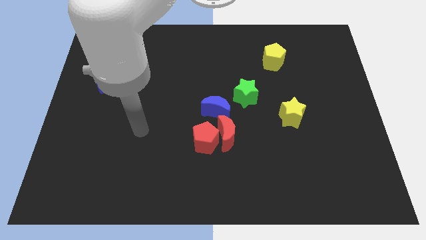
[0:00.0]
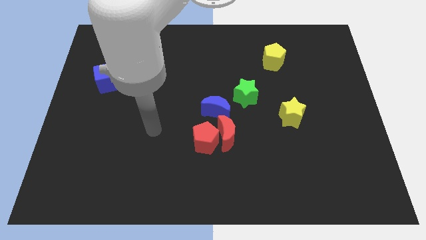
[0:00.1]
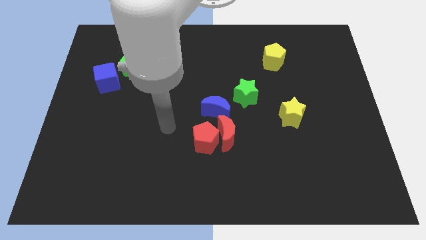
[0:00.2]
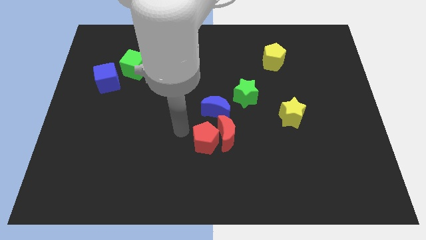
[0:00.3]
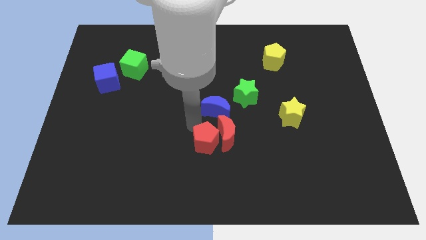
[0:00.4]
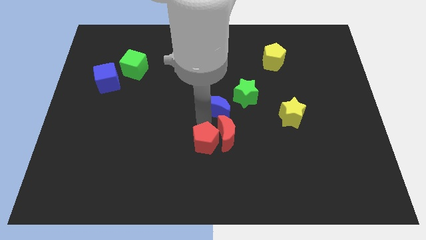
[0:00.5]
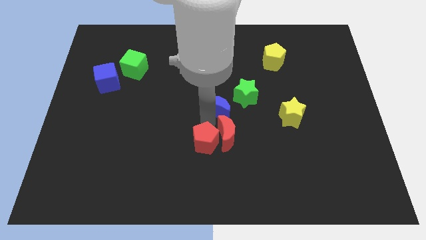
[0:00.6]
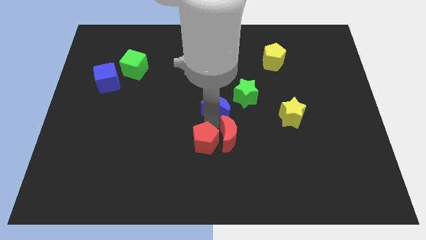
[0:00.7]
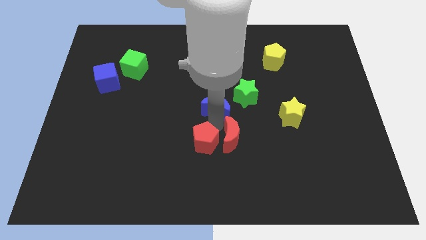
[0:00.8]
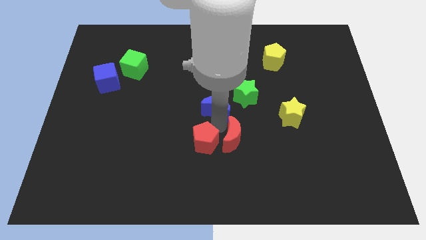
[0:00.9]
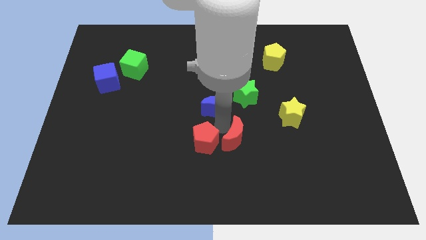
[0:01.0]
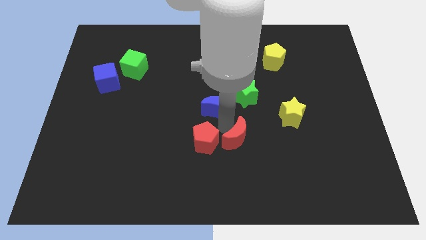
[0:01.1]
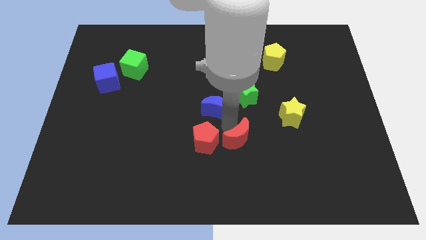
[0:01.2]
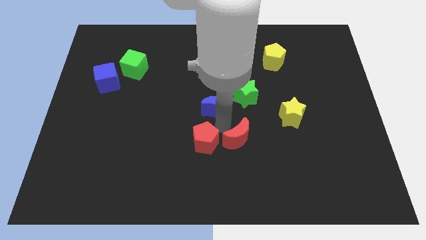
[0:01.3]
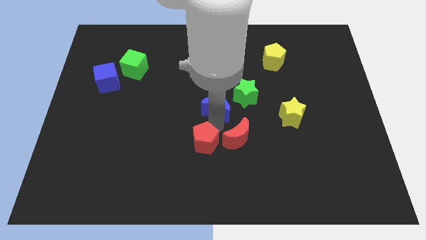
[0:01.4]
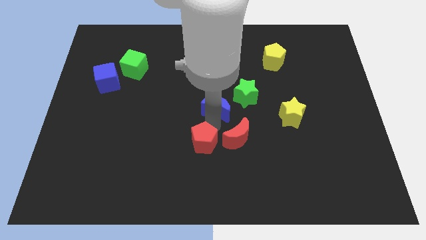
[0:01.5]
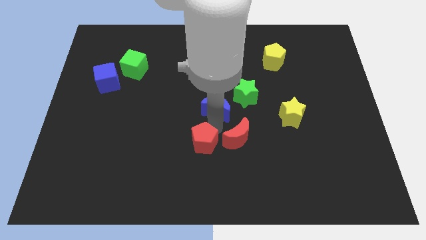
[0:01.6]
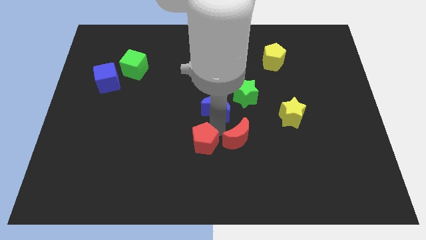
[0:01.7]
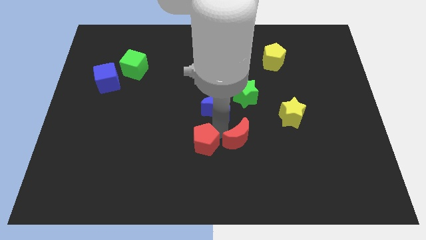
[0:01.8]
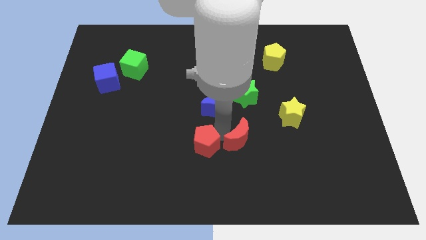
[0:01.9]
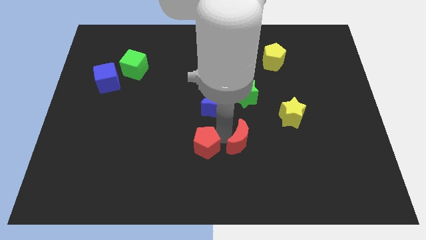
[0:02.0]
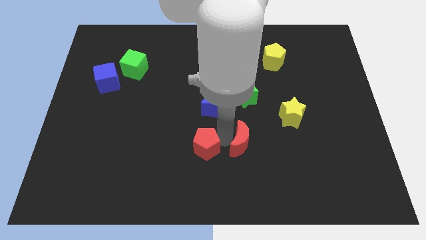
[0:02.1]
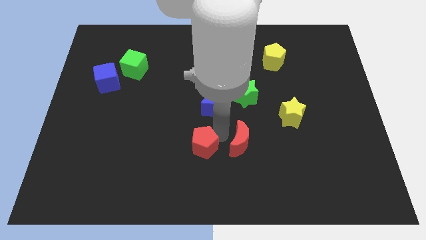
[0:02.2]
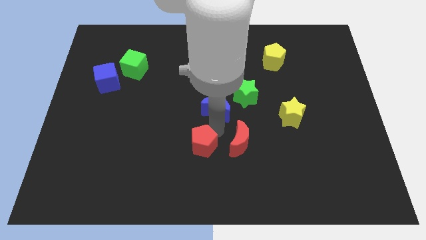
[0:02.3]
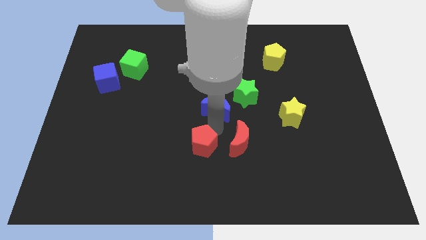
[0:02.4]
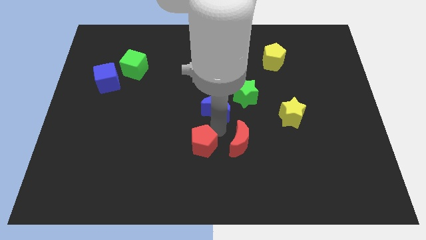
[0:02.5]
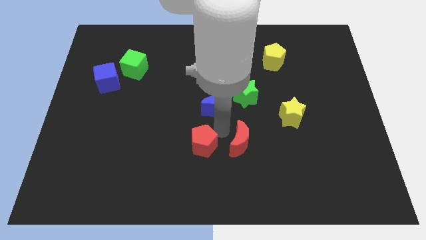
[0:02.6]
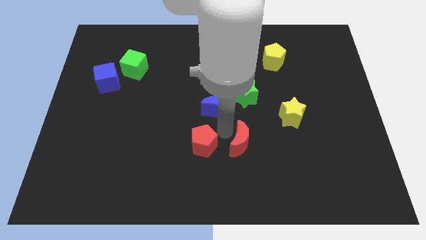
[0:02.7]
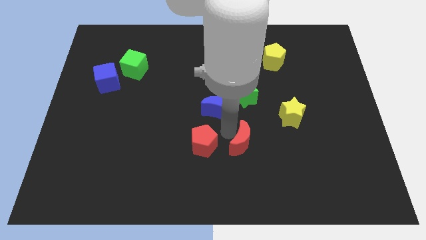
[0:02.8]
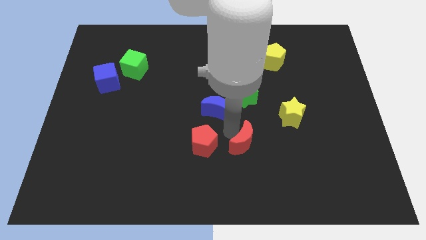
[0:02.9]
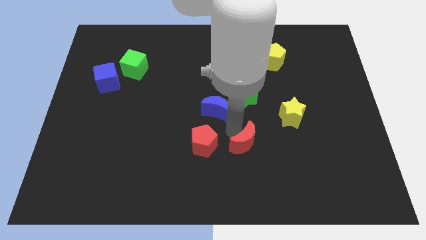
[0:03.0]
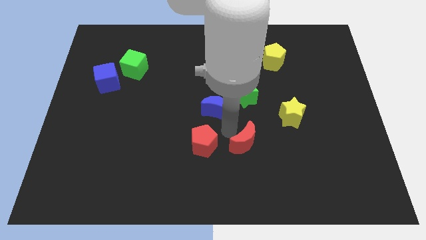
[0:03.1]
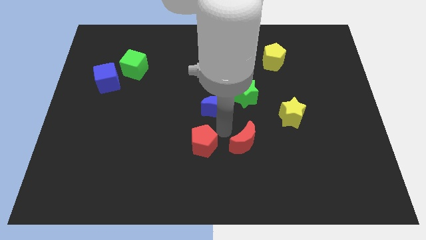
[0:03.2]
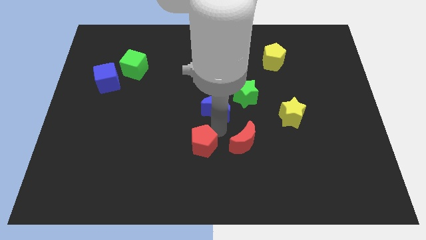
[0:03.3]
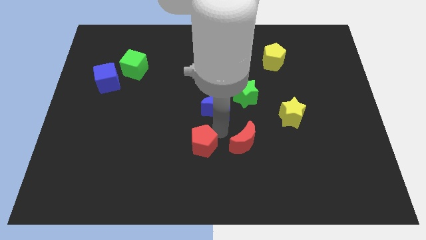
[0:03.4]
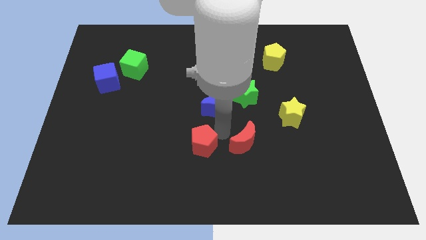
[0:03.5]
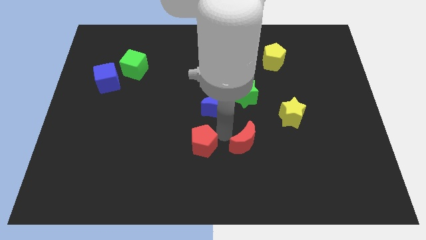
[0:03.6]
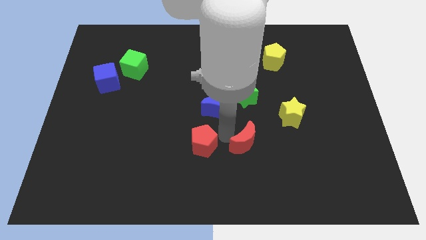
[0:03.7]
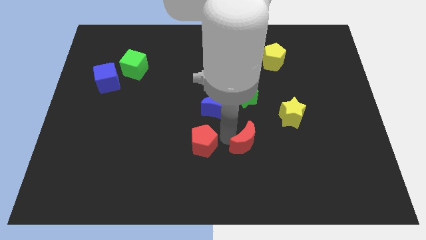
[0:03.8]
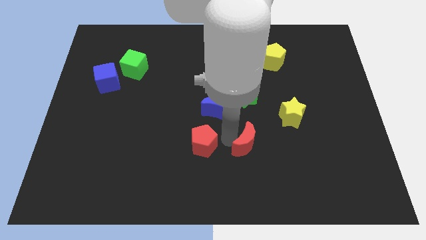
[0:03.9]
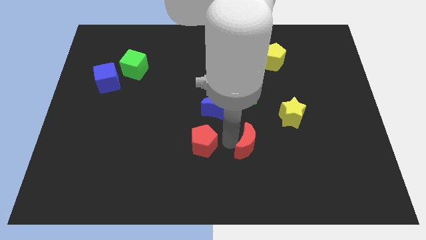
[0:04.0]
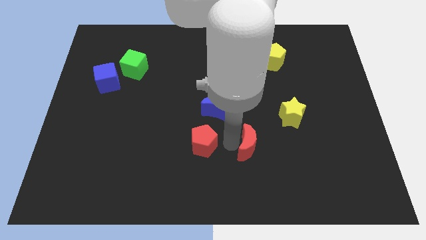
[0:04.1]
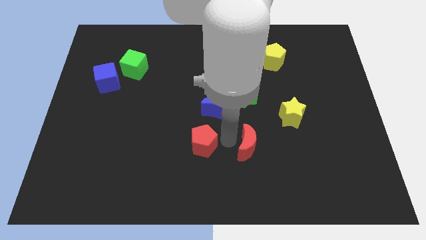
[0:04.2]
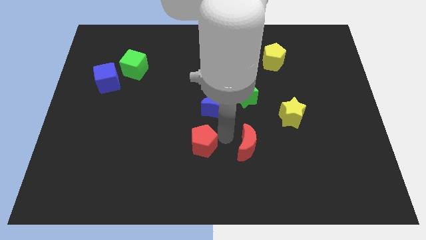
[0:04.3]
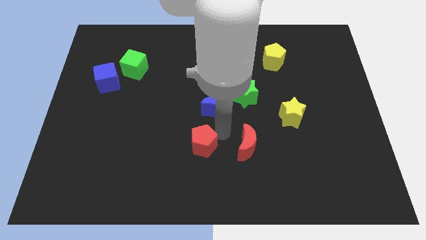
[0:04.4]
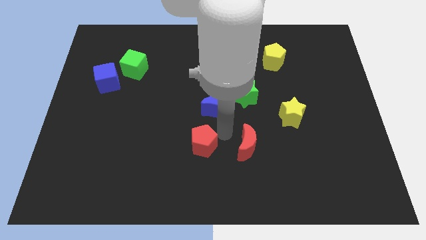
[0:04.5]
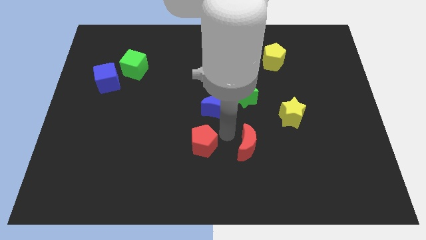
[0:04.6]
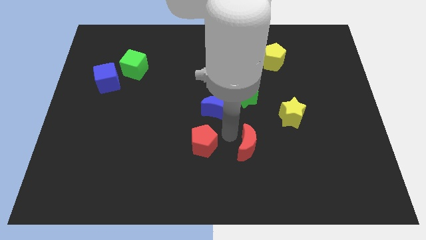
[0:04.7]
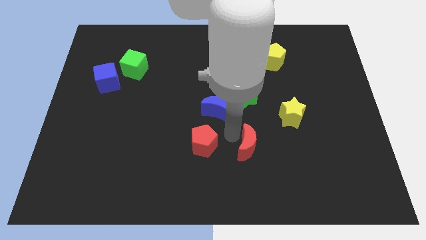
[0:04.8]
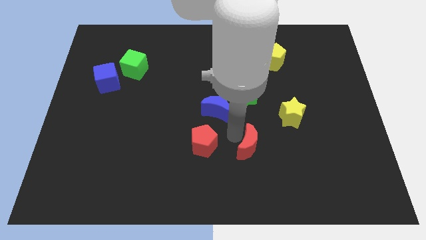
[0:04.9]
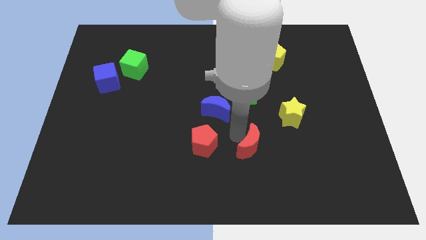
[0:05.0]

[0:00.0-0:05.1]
separate the red moon from the red pentagon and blue moon

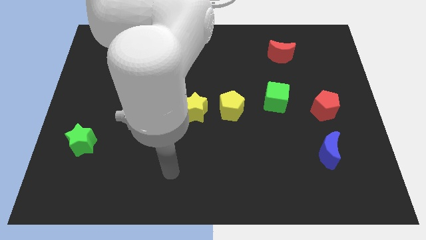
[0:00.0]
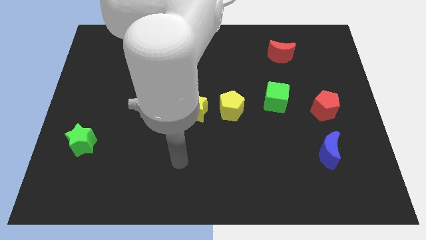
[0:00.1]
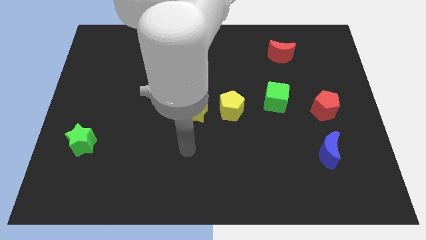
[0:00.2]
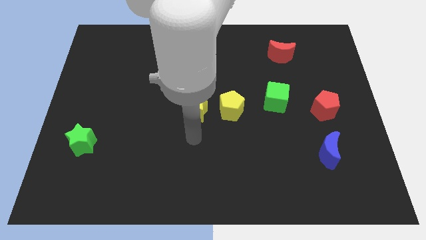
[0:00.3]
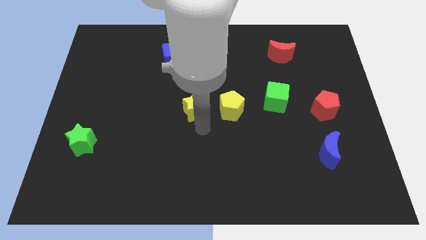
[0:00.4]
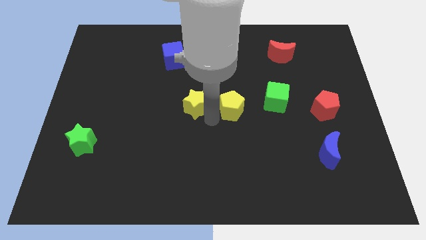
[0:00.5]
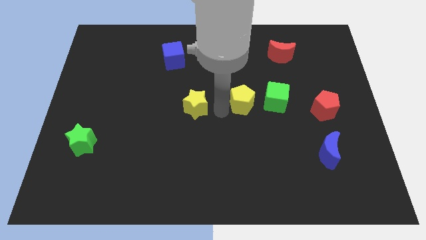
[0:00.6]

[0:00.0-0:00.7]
move the yellow star away from the yellow pentagon

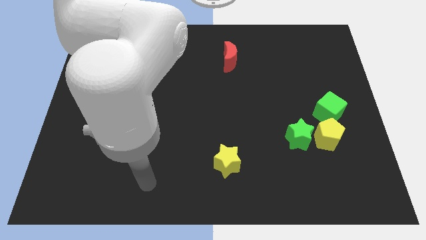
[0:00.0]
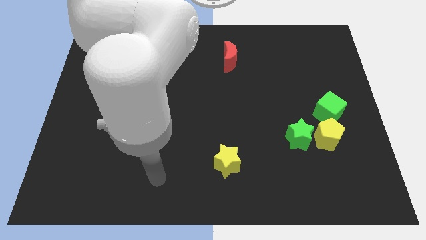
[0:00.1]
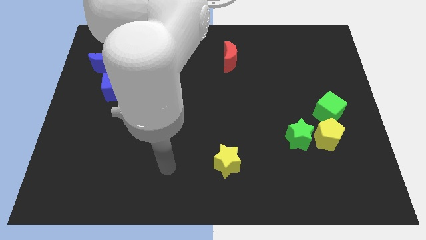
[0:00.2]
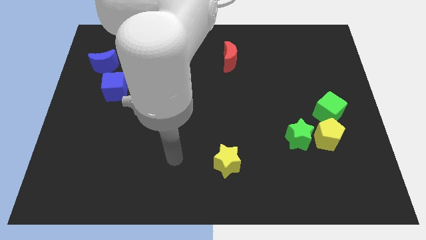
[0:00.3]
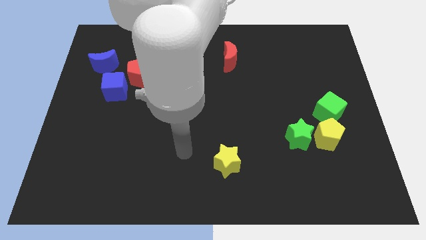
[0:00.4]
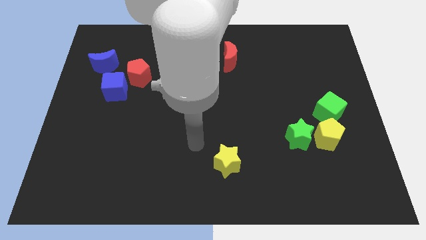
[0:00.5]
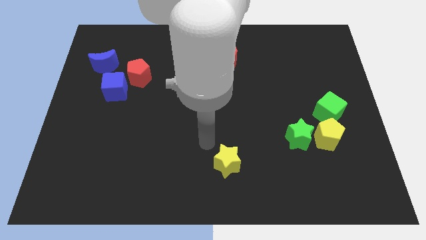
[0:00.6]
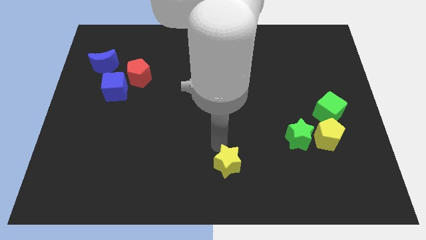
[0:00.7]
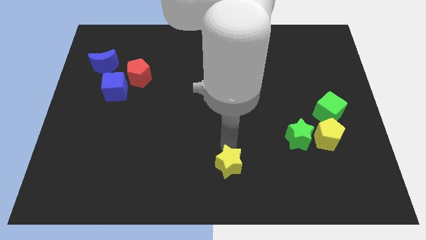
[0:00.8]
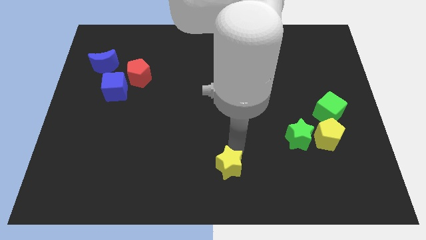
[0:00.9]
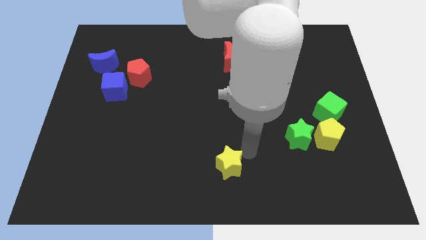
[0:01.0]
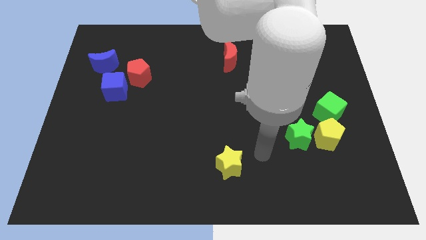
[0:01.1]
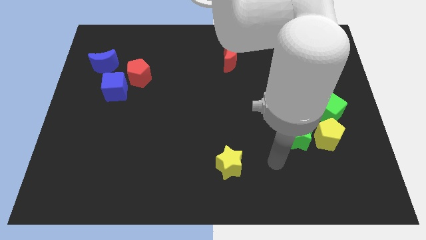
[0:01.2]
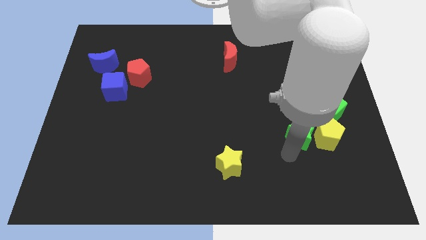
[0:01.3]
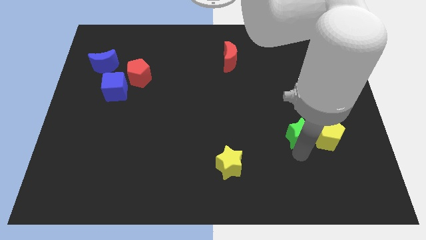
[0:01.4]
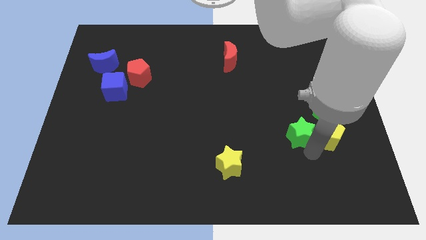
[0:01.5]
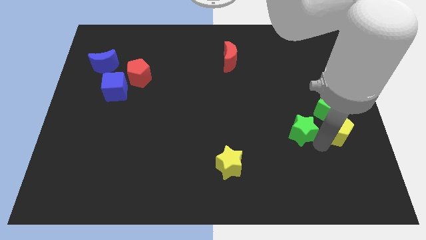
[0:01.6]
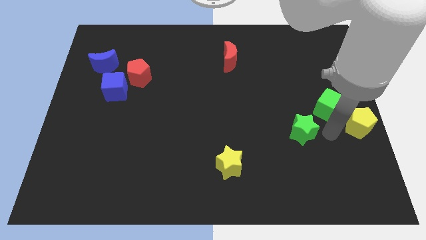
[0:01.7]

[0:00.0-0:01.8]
separate the green star from the yellow pentagon

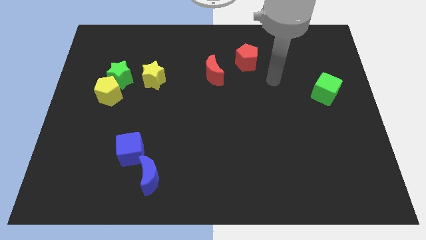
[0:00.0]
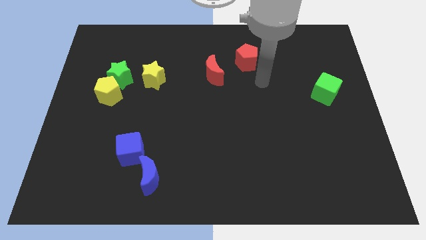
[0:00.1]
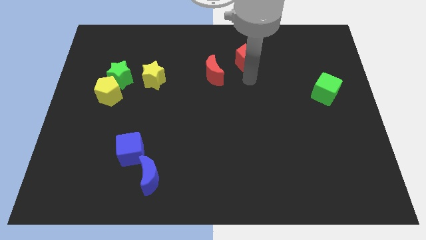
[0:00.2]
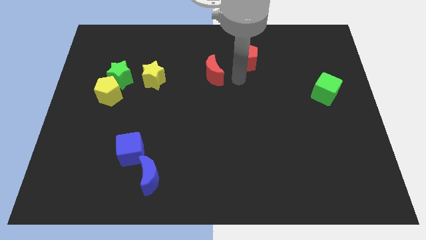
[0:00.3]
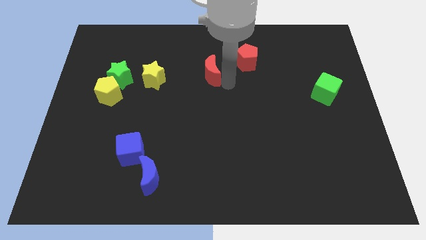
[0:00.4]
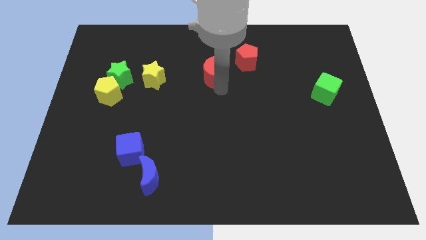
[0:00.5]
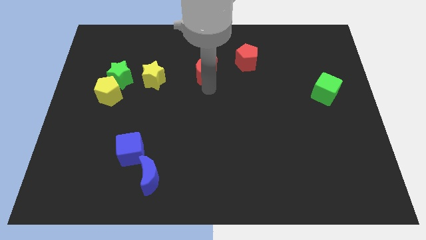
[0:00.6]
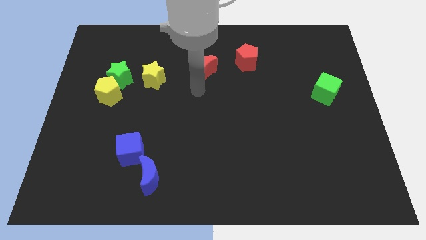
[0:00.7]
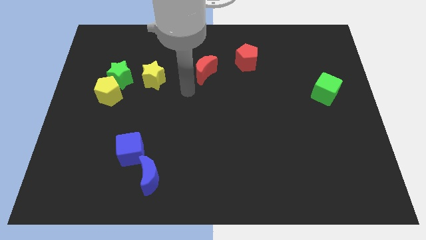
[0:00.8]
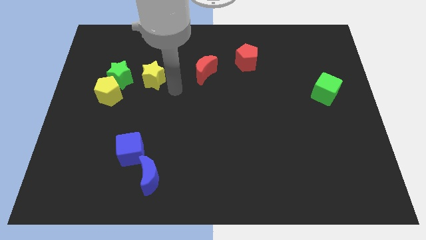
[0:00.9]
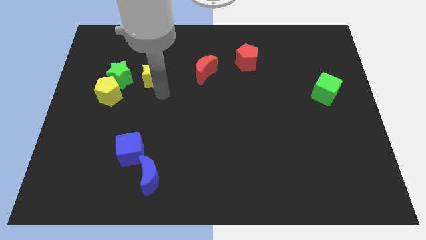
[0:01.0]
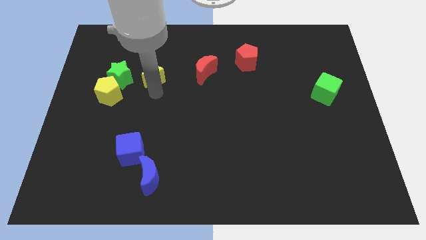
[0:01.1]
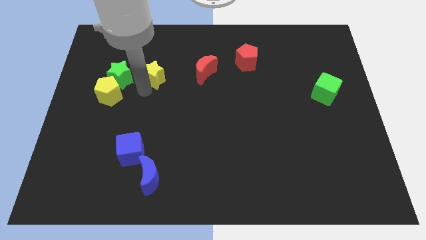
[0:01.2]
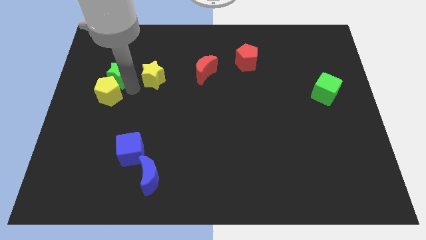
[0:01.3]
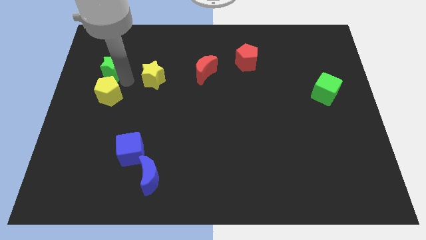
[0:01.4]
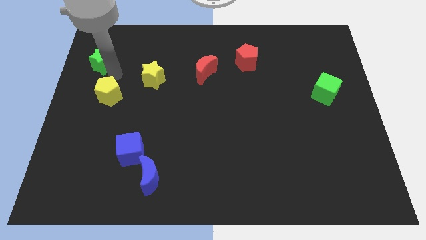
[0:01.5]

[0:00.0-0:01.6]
move the yellow pentagon away from the green star

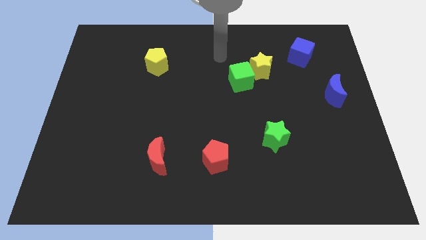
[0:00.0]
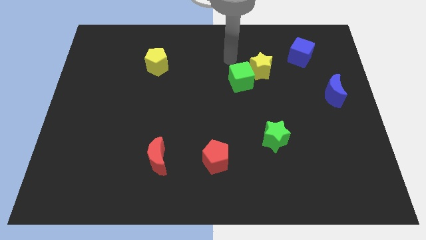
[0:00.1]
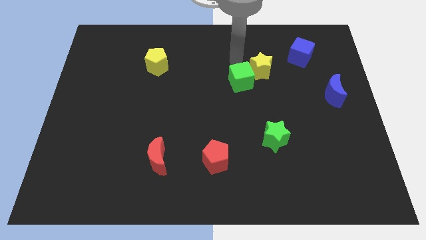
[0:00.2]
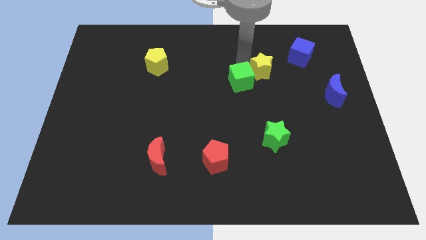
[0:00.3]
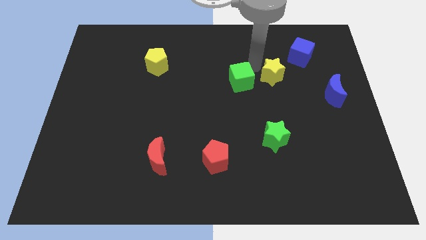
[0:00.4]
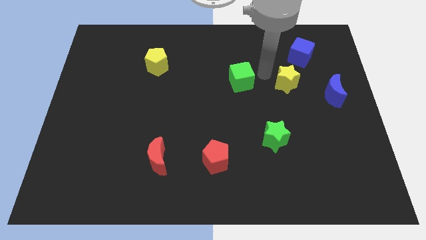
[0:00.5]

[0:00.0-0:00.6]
separate the green cube from the yellow star
